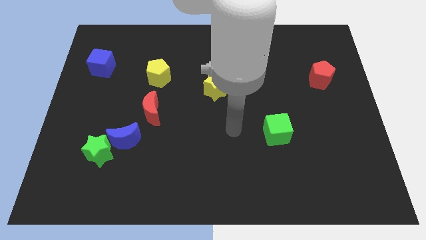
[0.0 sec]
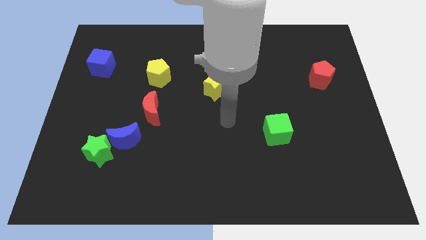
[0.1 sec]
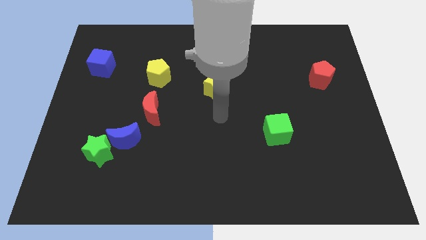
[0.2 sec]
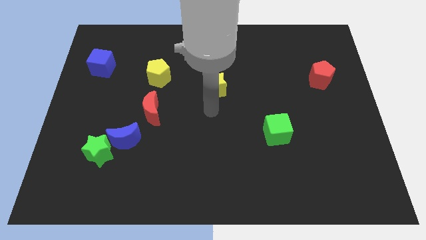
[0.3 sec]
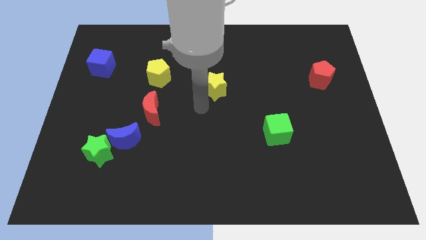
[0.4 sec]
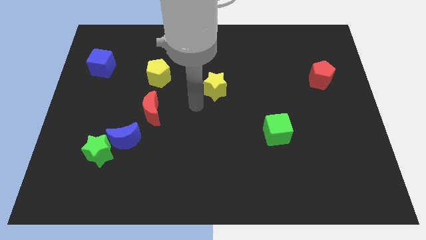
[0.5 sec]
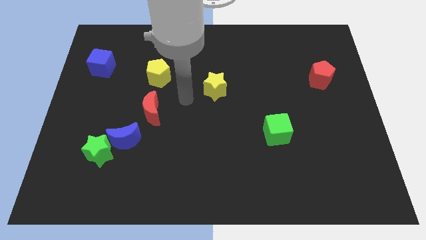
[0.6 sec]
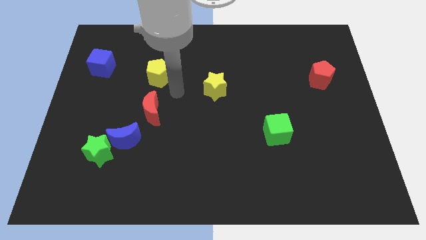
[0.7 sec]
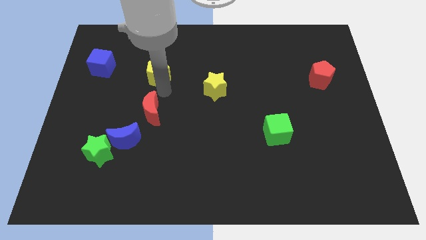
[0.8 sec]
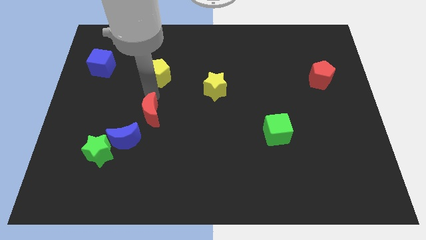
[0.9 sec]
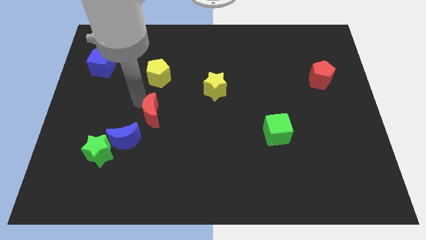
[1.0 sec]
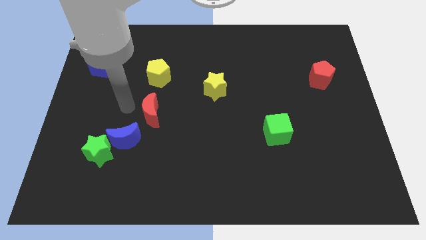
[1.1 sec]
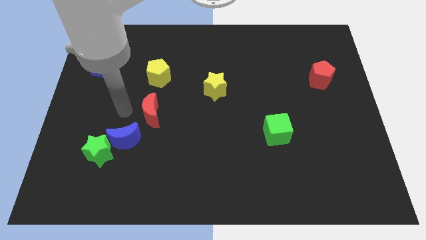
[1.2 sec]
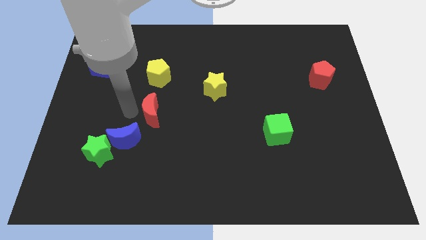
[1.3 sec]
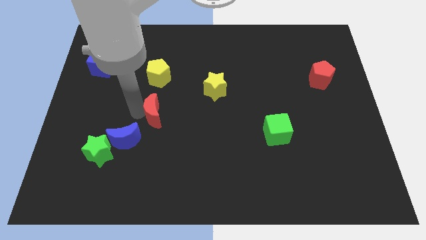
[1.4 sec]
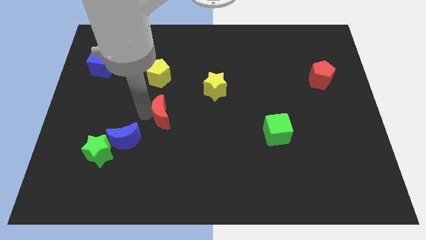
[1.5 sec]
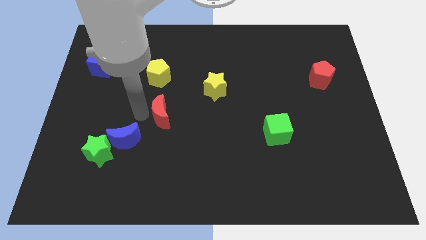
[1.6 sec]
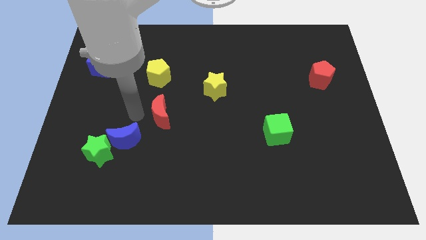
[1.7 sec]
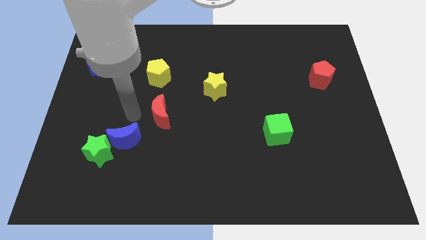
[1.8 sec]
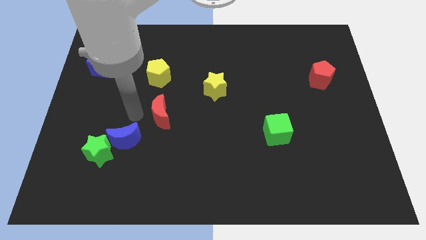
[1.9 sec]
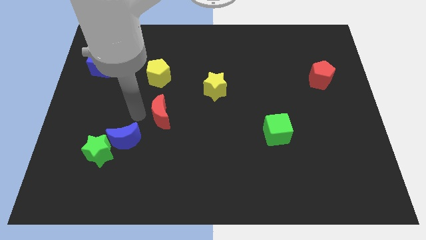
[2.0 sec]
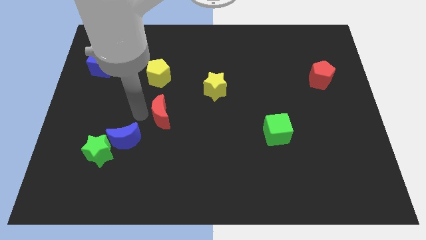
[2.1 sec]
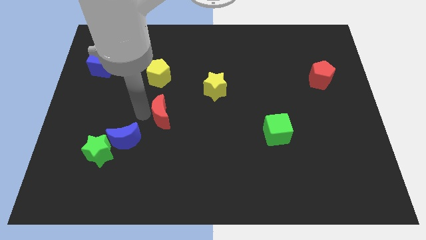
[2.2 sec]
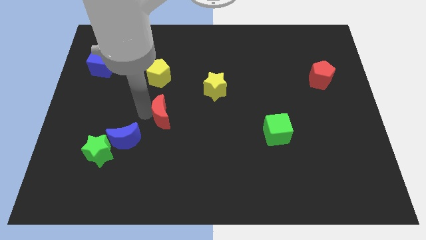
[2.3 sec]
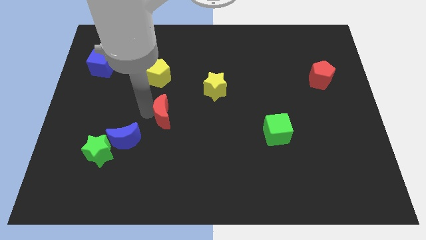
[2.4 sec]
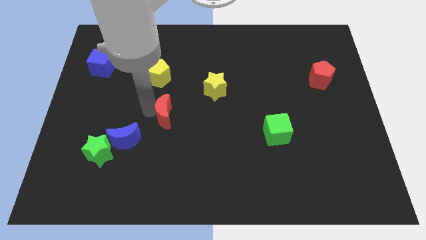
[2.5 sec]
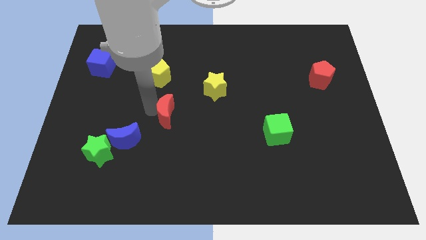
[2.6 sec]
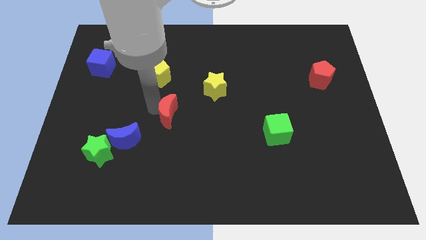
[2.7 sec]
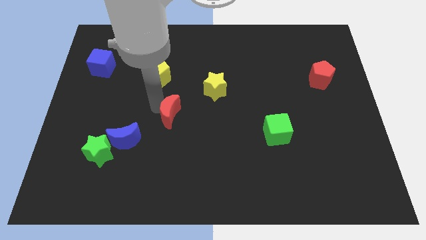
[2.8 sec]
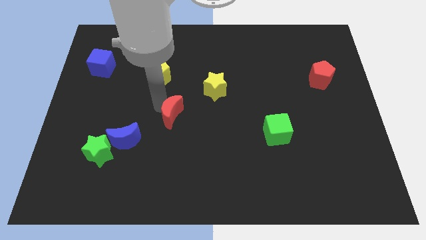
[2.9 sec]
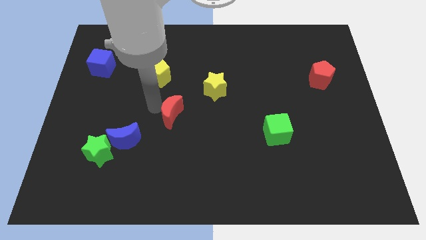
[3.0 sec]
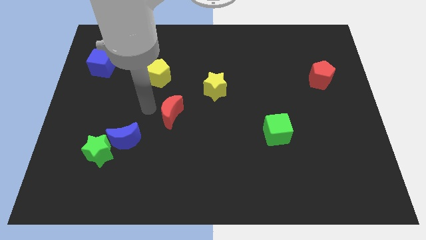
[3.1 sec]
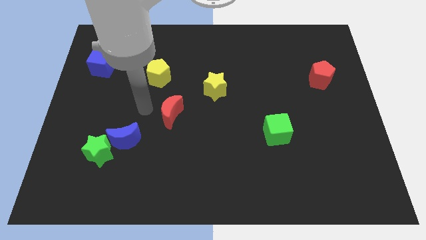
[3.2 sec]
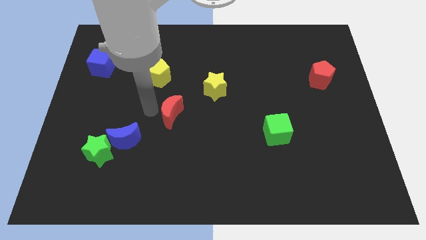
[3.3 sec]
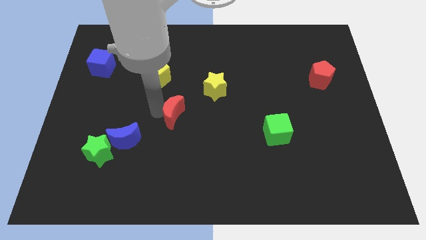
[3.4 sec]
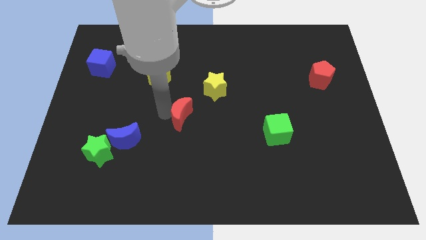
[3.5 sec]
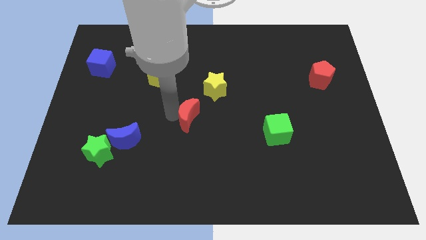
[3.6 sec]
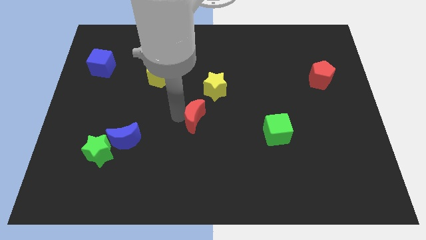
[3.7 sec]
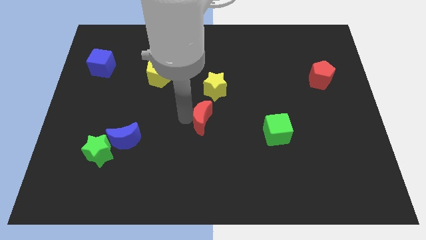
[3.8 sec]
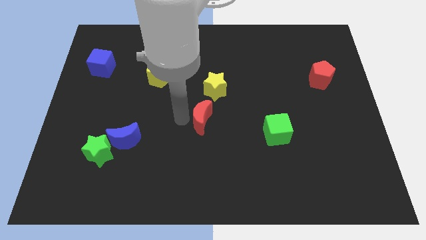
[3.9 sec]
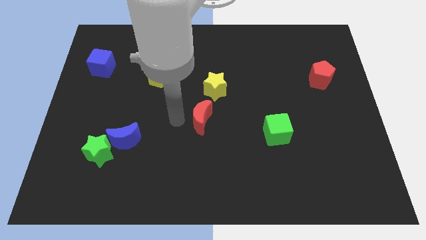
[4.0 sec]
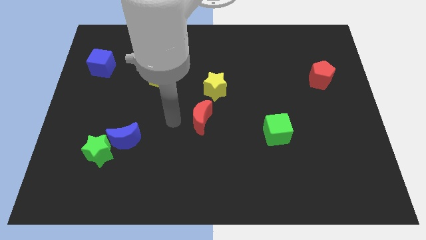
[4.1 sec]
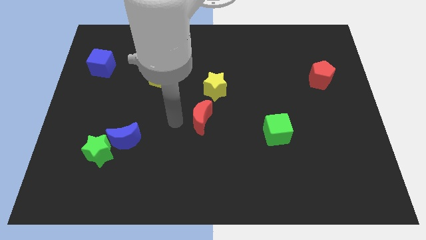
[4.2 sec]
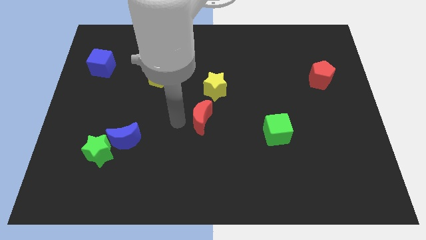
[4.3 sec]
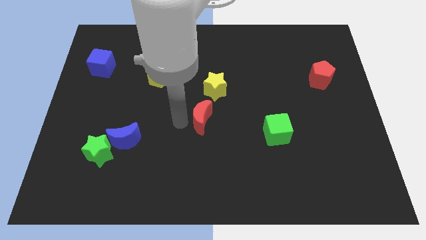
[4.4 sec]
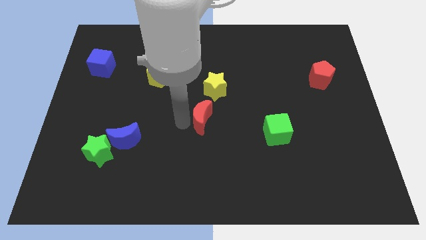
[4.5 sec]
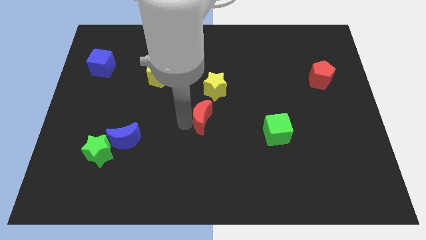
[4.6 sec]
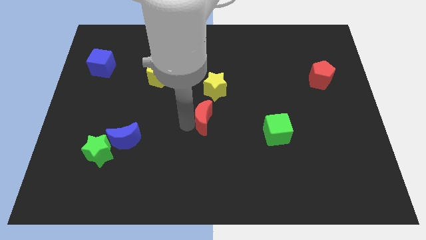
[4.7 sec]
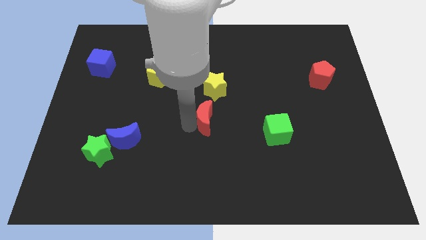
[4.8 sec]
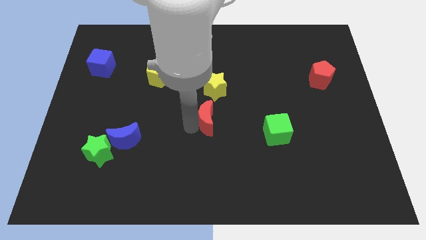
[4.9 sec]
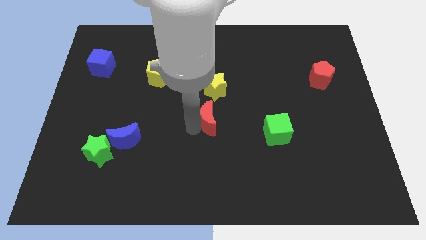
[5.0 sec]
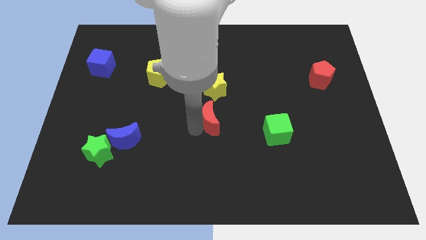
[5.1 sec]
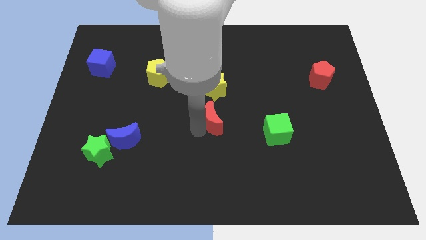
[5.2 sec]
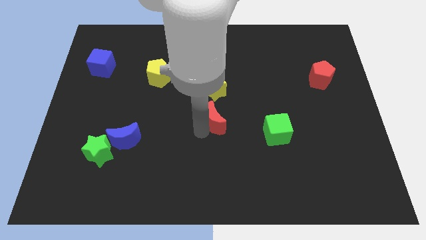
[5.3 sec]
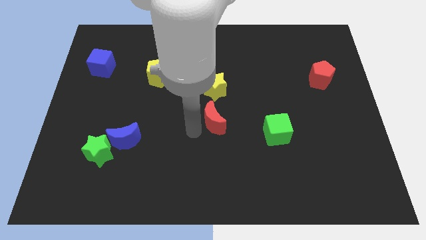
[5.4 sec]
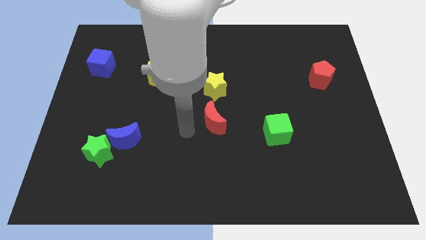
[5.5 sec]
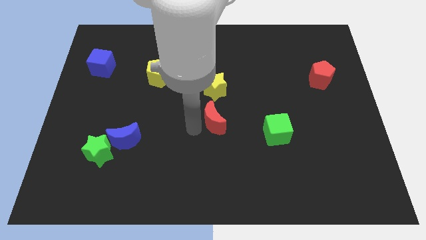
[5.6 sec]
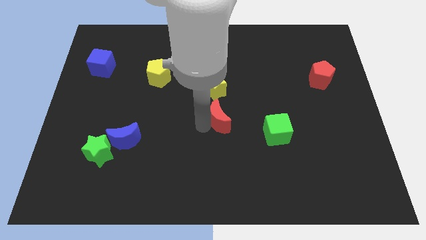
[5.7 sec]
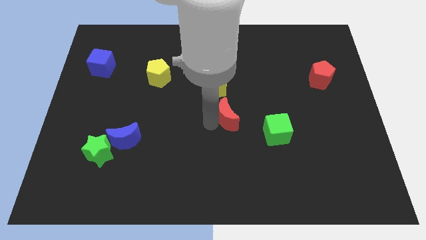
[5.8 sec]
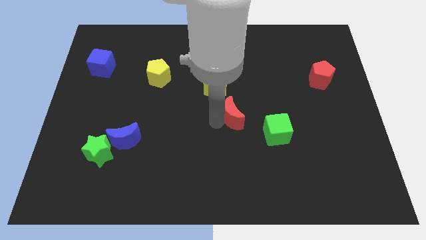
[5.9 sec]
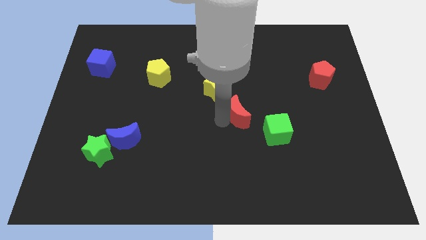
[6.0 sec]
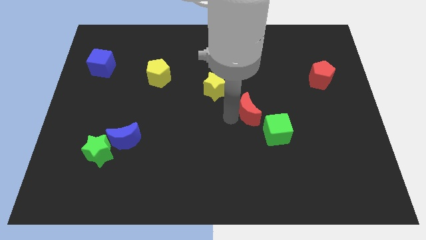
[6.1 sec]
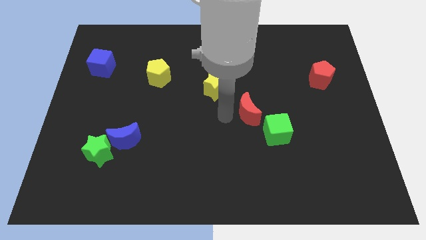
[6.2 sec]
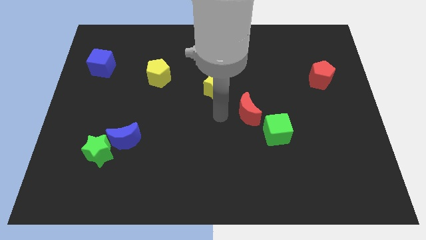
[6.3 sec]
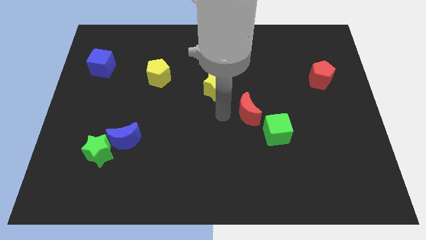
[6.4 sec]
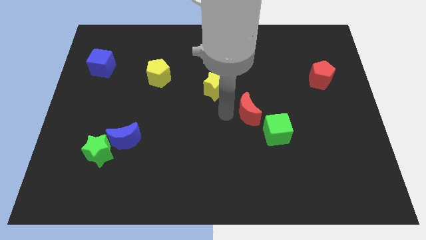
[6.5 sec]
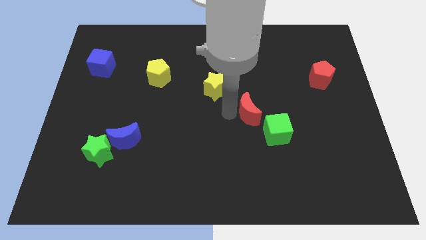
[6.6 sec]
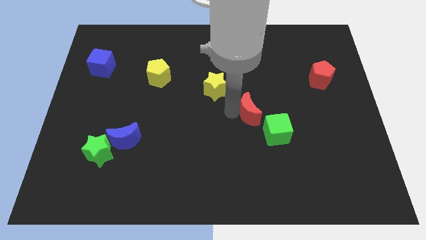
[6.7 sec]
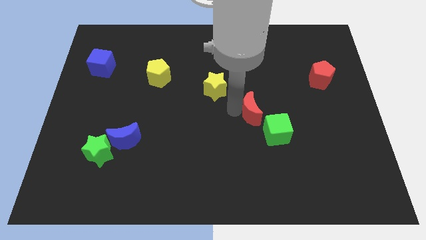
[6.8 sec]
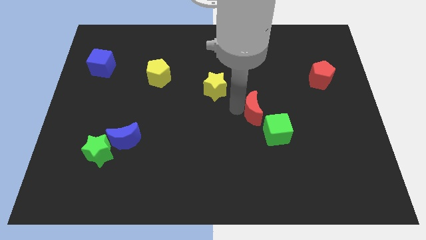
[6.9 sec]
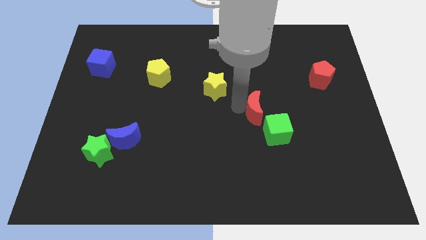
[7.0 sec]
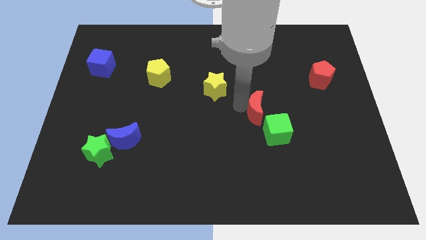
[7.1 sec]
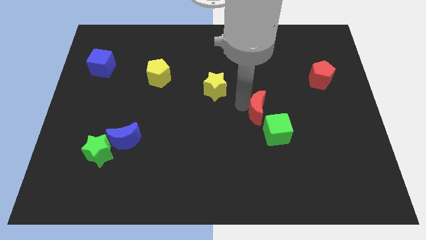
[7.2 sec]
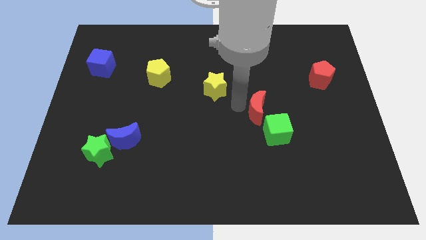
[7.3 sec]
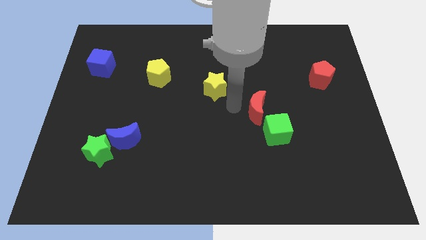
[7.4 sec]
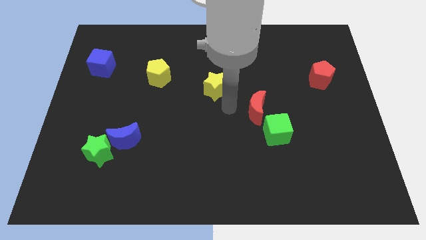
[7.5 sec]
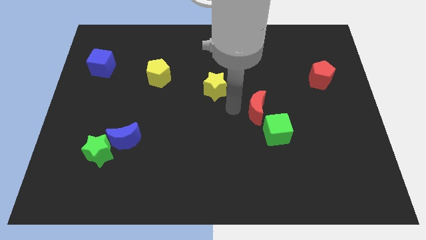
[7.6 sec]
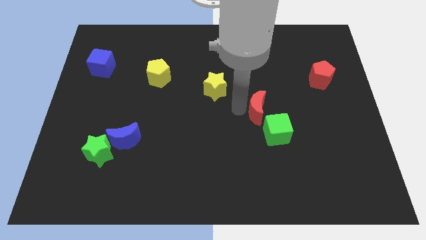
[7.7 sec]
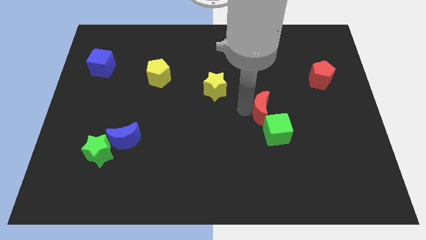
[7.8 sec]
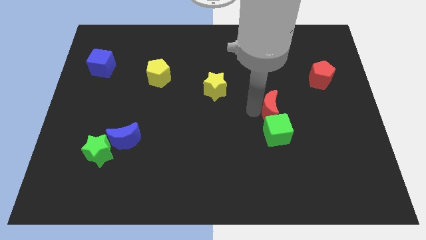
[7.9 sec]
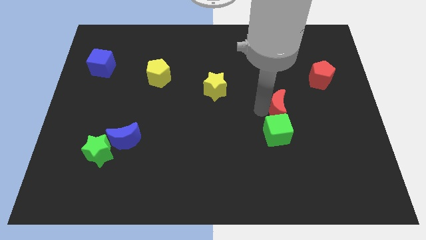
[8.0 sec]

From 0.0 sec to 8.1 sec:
slide the red moon to the top right side of the green cube
